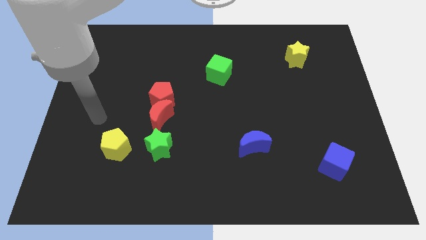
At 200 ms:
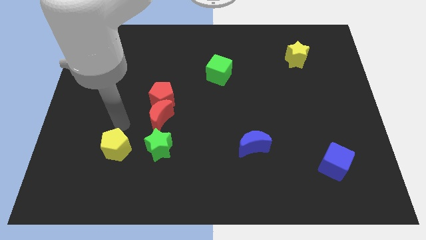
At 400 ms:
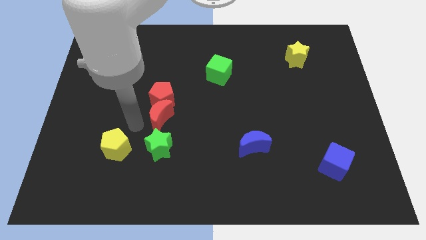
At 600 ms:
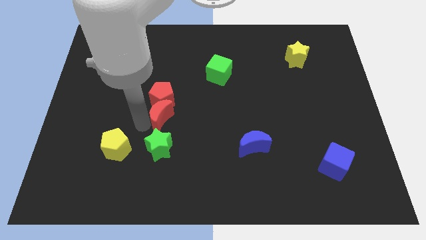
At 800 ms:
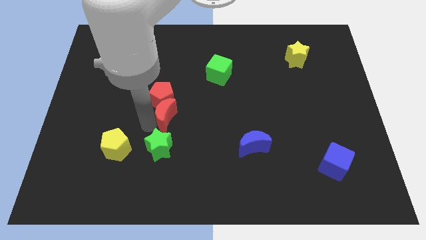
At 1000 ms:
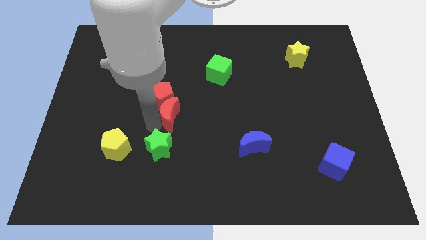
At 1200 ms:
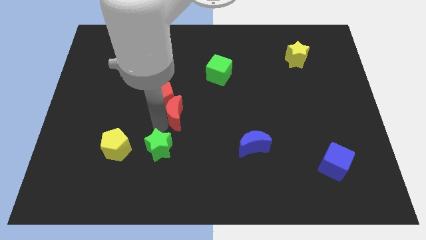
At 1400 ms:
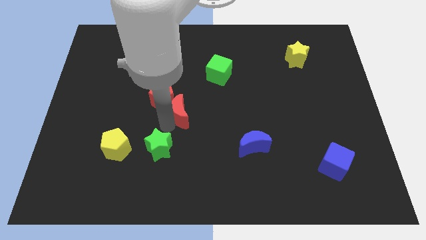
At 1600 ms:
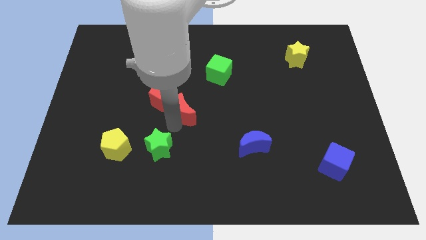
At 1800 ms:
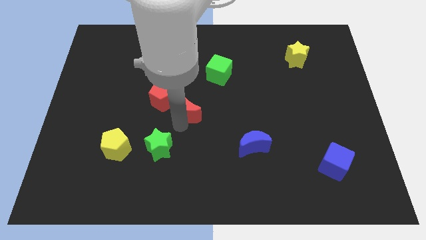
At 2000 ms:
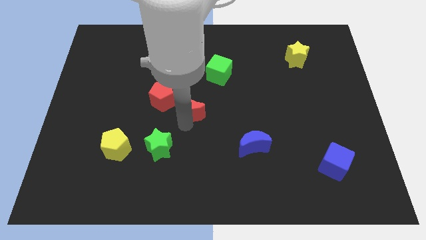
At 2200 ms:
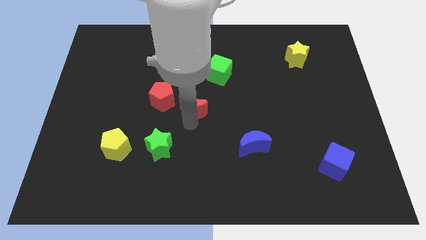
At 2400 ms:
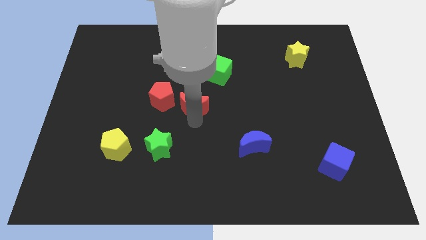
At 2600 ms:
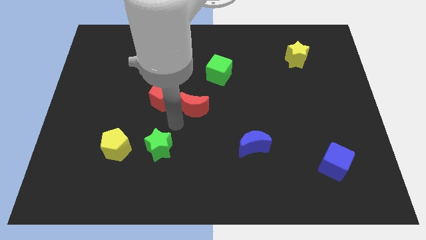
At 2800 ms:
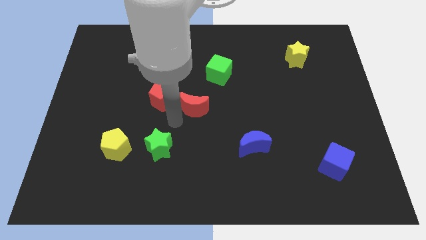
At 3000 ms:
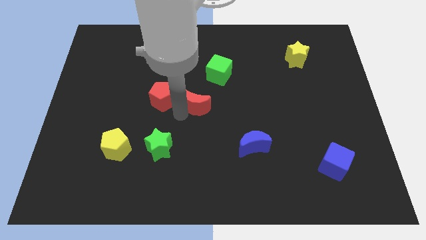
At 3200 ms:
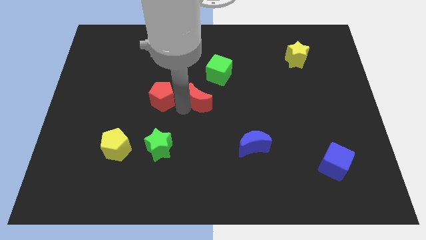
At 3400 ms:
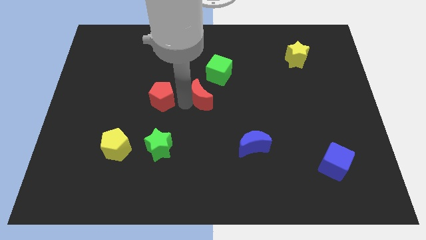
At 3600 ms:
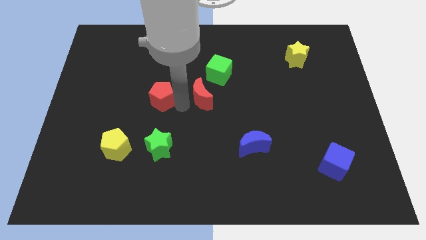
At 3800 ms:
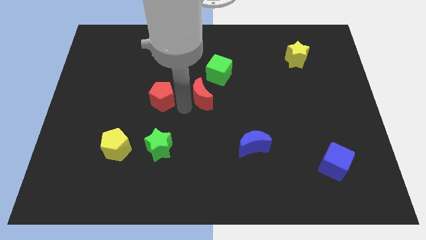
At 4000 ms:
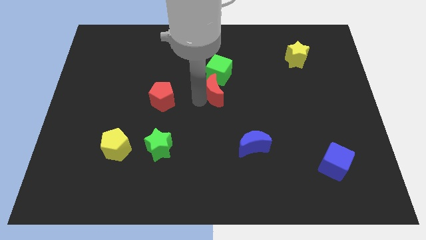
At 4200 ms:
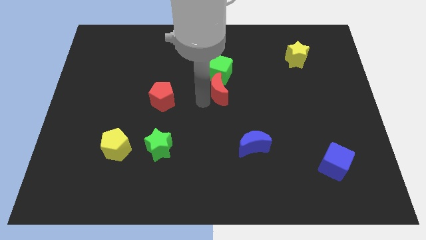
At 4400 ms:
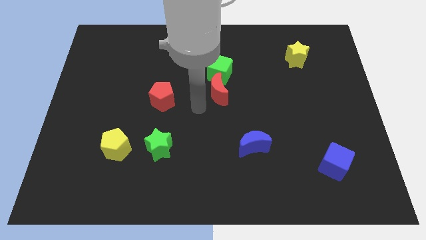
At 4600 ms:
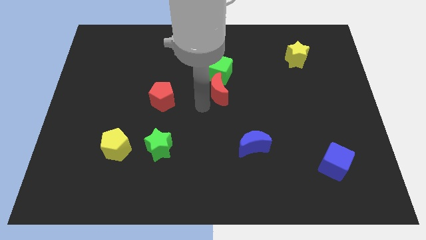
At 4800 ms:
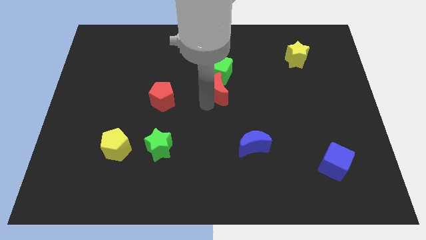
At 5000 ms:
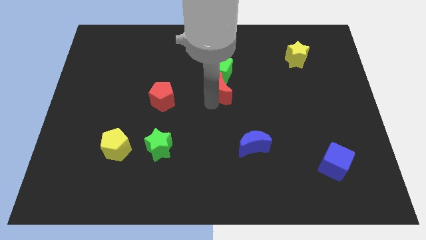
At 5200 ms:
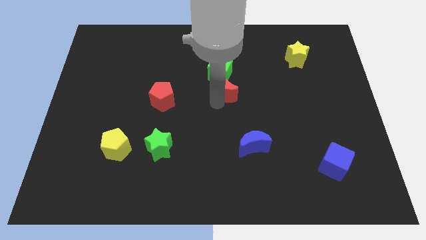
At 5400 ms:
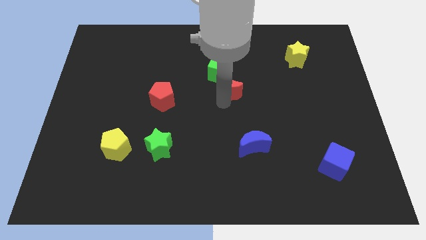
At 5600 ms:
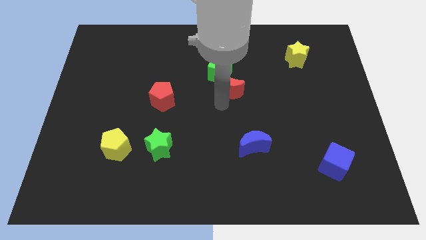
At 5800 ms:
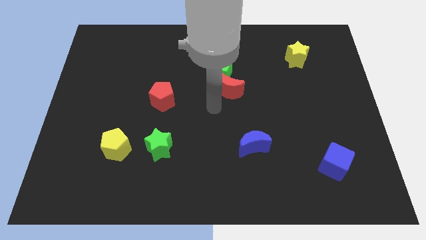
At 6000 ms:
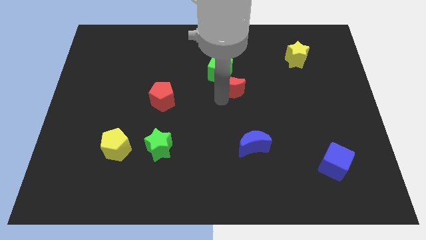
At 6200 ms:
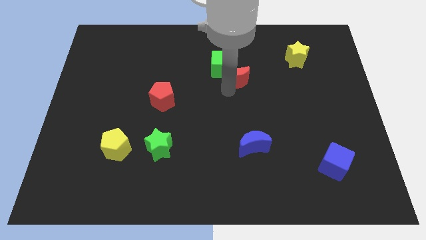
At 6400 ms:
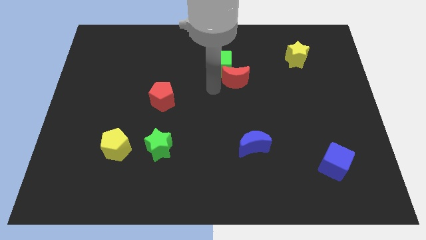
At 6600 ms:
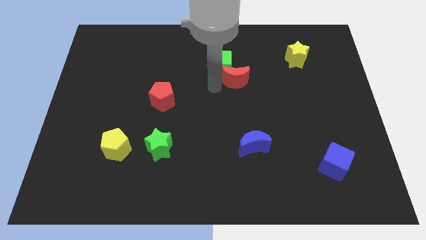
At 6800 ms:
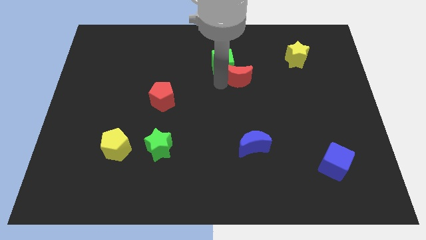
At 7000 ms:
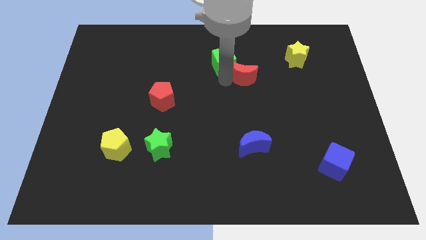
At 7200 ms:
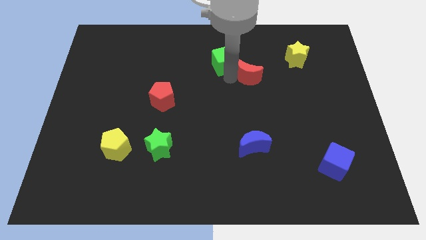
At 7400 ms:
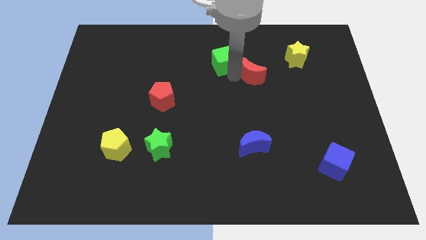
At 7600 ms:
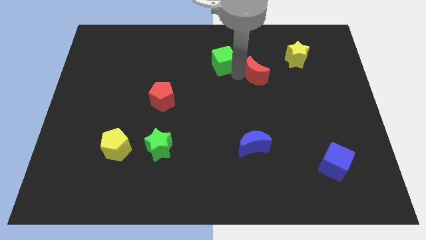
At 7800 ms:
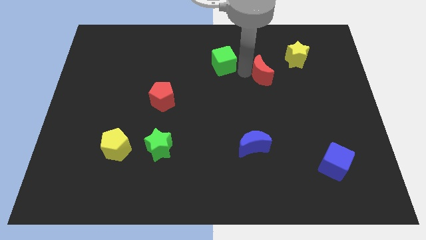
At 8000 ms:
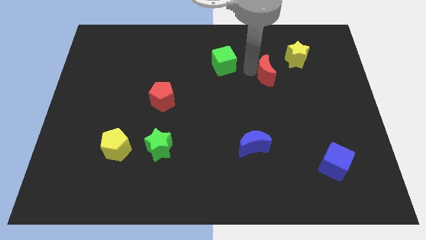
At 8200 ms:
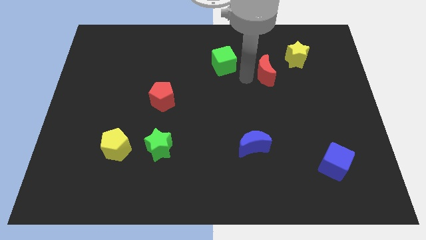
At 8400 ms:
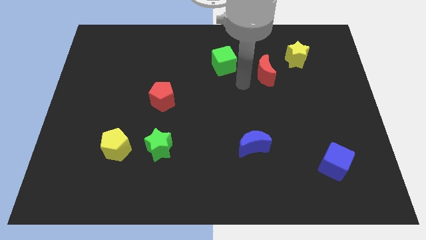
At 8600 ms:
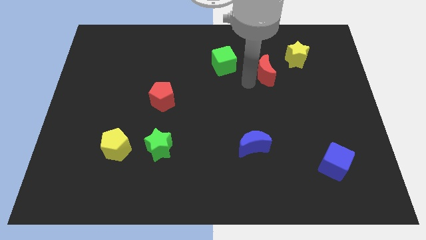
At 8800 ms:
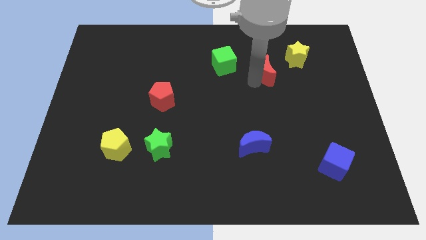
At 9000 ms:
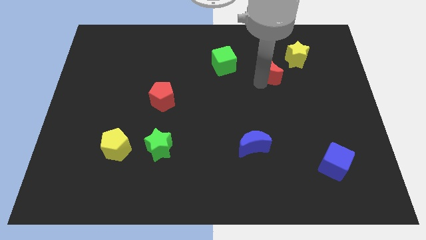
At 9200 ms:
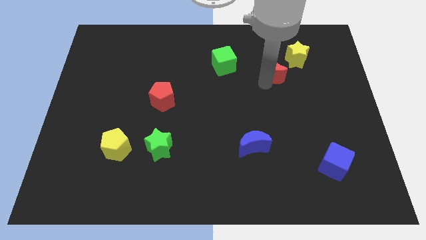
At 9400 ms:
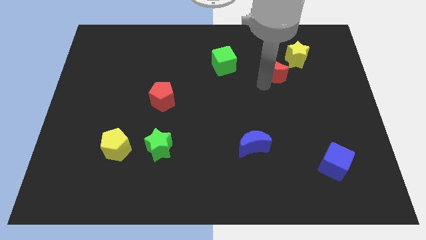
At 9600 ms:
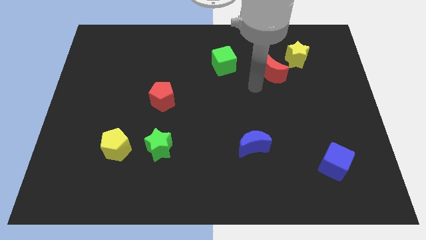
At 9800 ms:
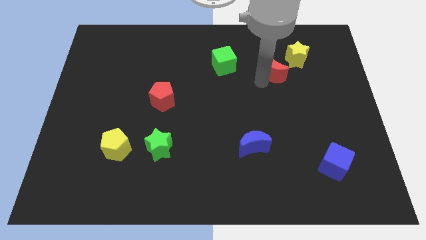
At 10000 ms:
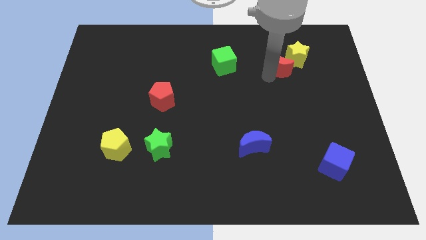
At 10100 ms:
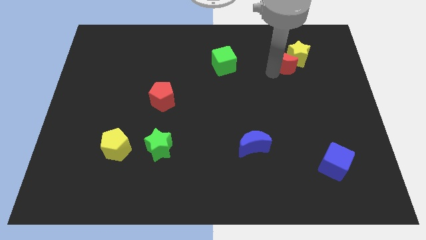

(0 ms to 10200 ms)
push the red moon next to the yellow star

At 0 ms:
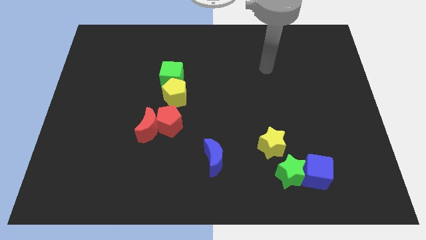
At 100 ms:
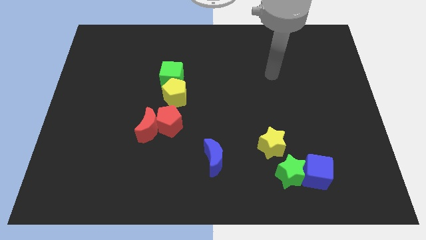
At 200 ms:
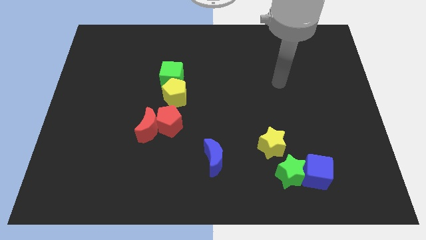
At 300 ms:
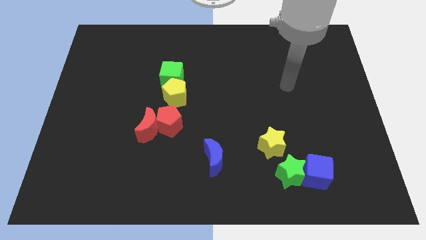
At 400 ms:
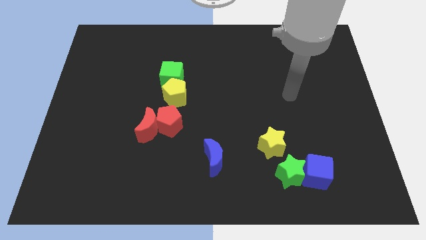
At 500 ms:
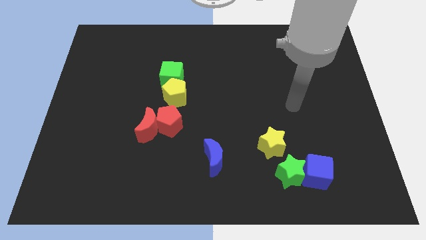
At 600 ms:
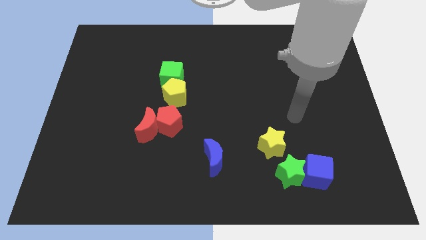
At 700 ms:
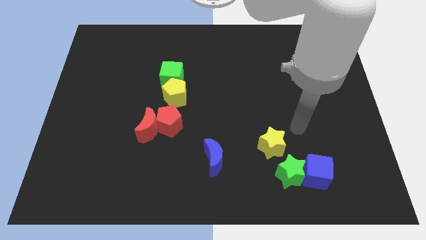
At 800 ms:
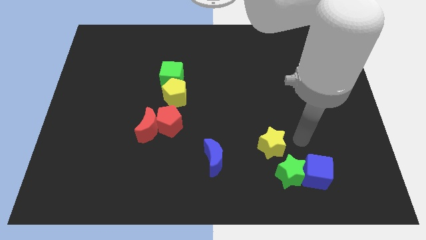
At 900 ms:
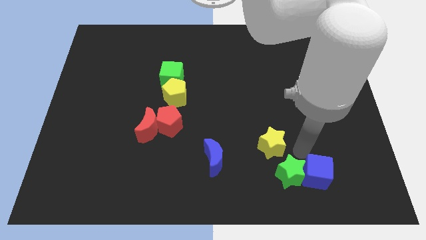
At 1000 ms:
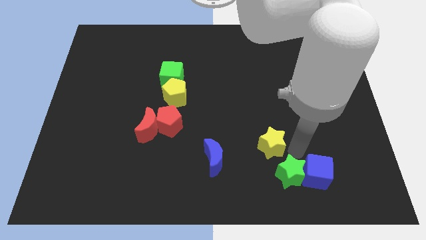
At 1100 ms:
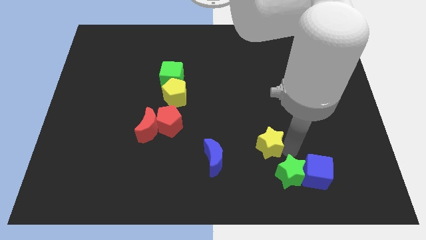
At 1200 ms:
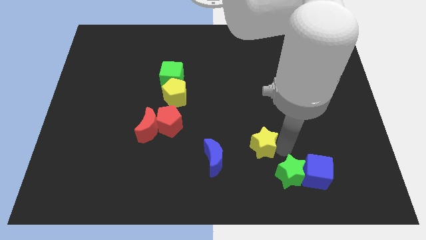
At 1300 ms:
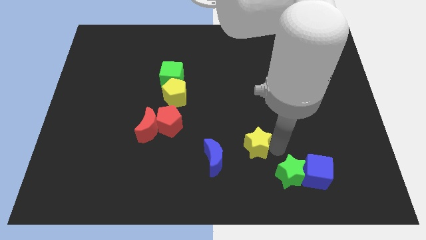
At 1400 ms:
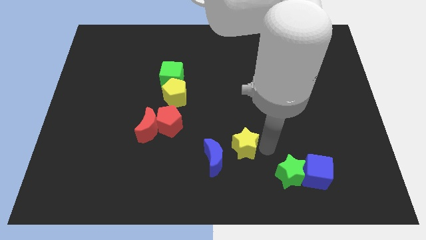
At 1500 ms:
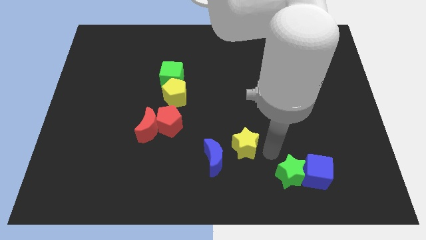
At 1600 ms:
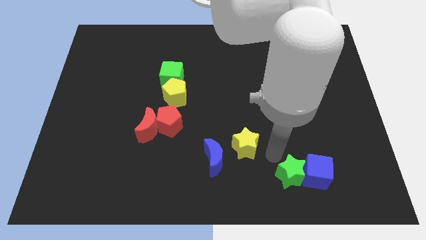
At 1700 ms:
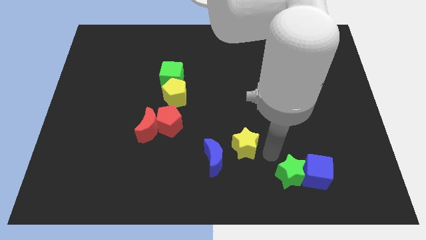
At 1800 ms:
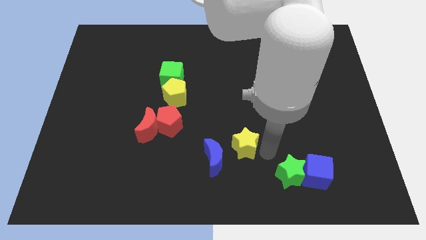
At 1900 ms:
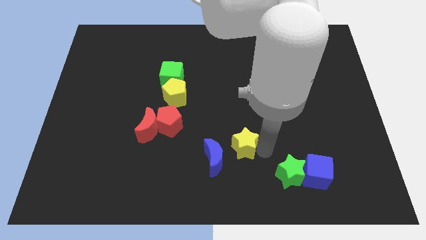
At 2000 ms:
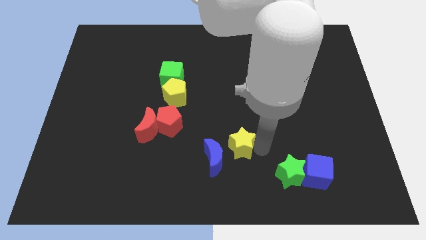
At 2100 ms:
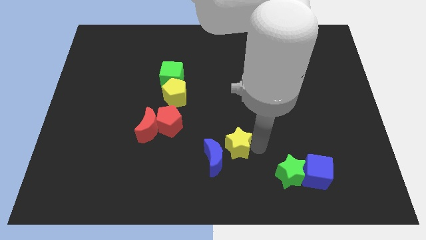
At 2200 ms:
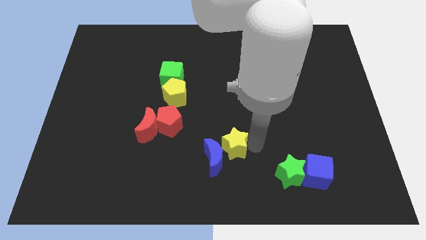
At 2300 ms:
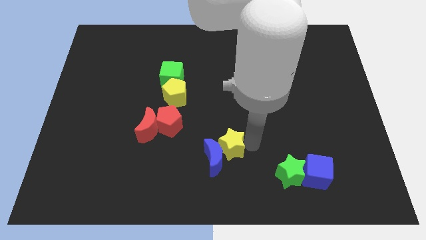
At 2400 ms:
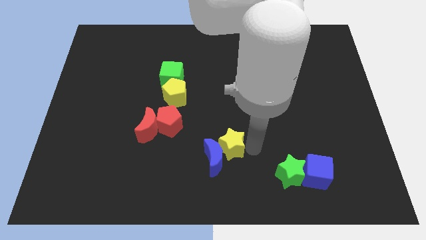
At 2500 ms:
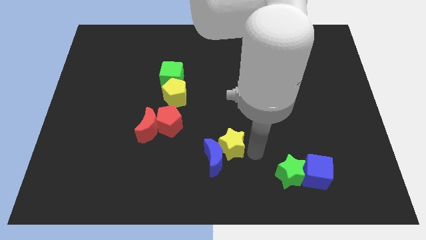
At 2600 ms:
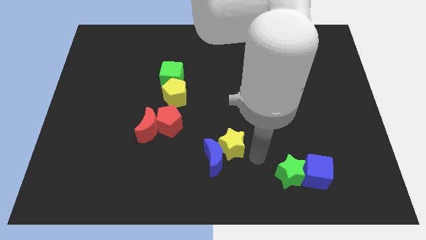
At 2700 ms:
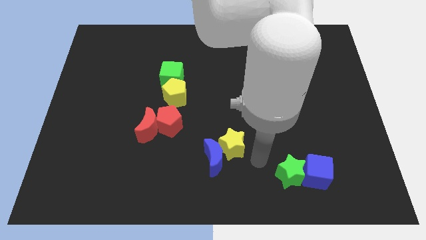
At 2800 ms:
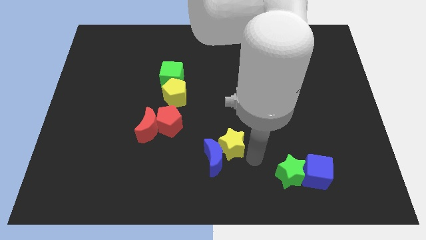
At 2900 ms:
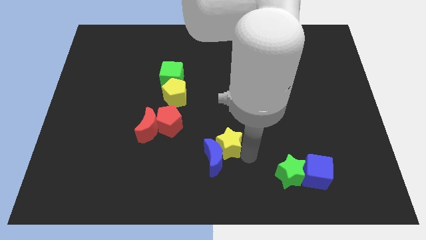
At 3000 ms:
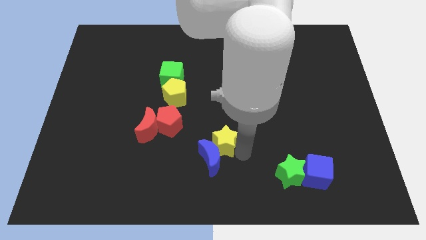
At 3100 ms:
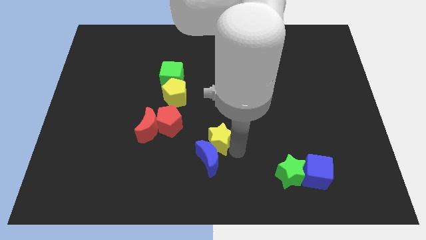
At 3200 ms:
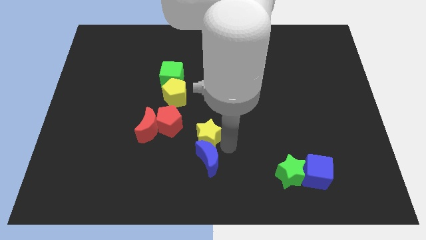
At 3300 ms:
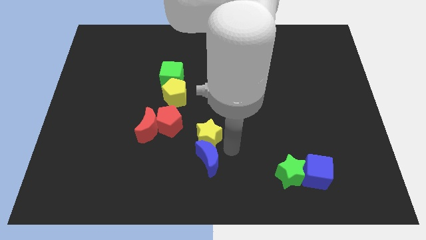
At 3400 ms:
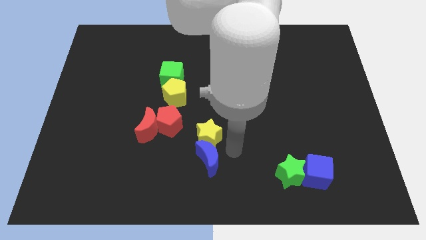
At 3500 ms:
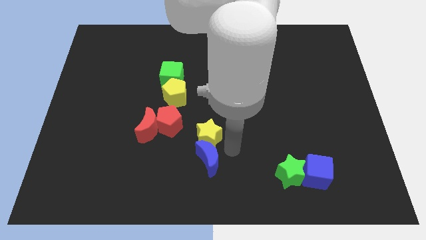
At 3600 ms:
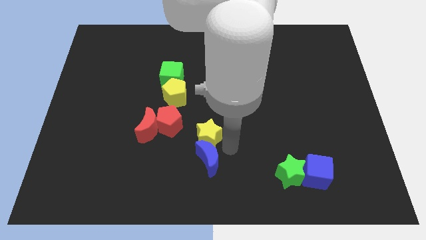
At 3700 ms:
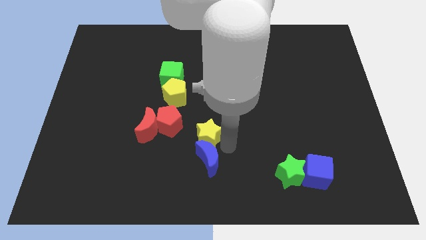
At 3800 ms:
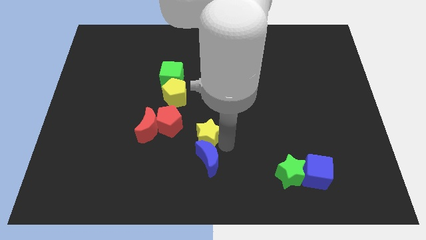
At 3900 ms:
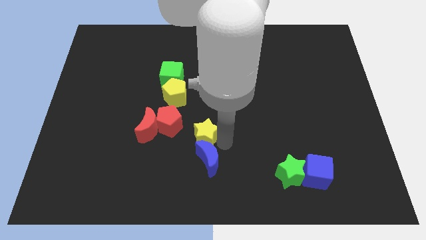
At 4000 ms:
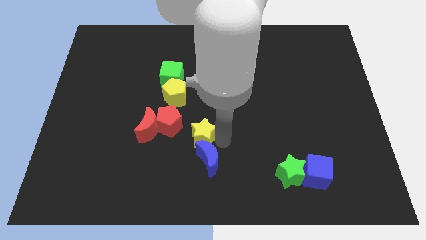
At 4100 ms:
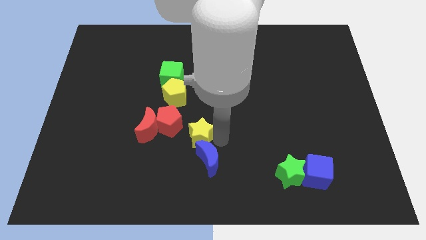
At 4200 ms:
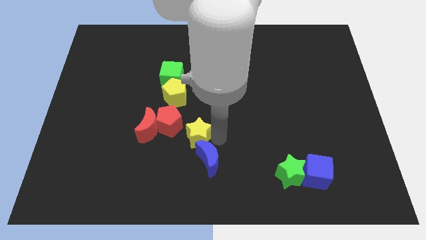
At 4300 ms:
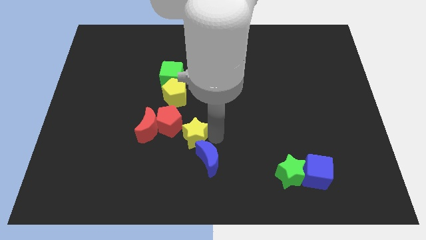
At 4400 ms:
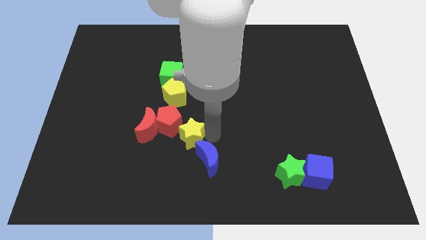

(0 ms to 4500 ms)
push the yellow star close to the red pentagon
